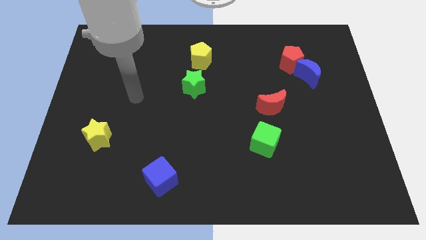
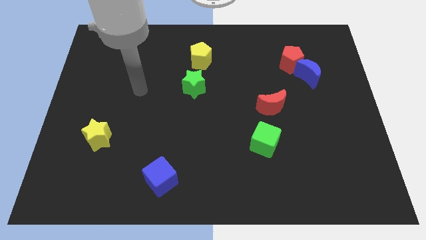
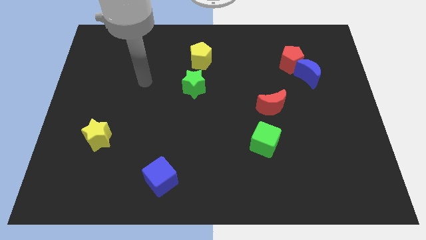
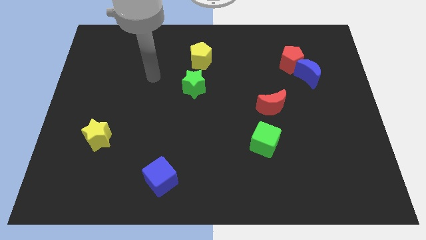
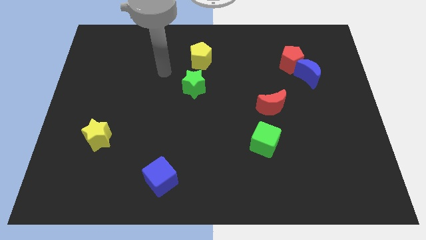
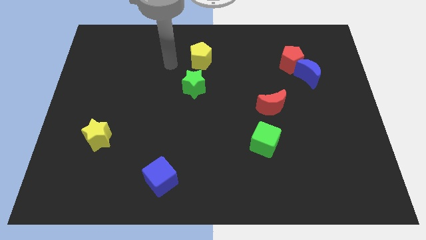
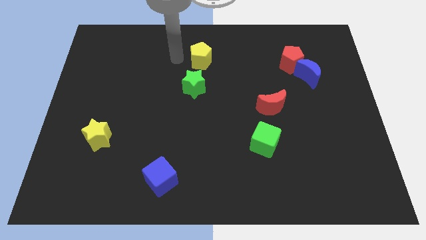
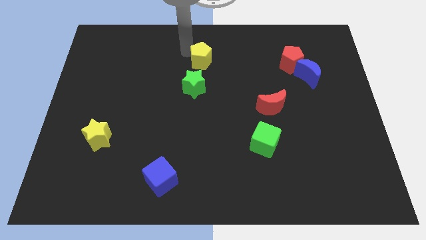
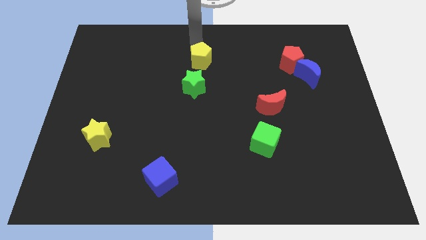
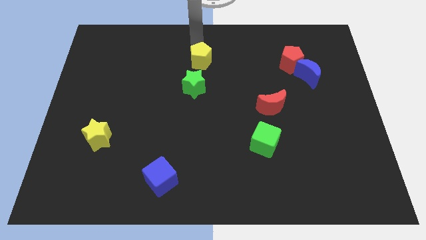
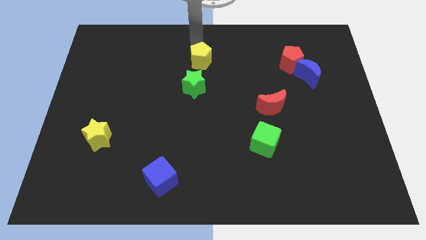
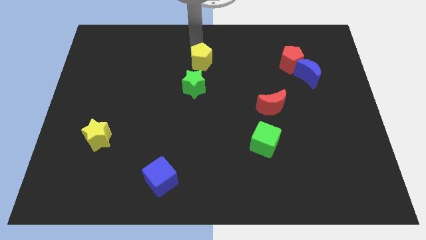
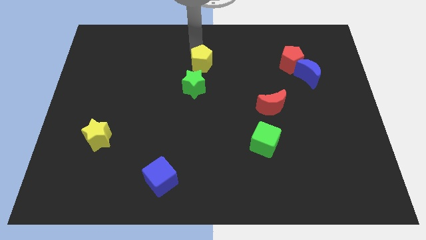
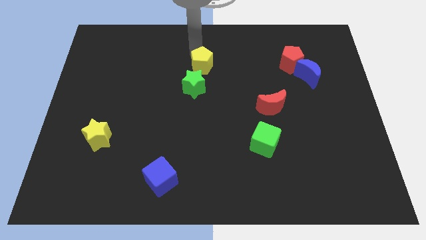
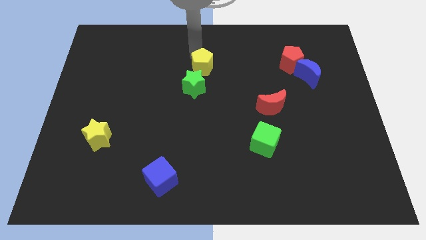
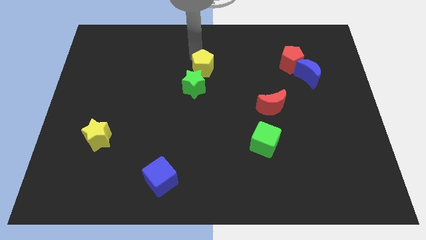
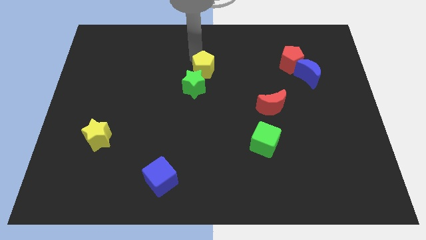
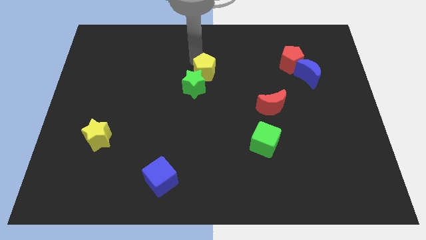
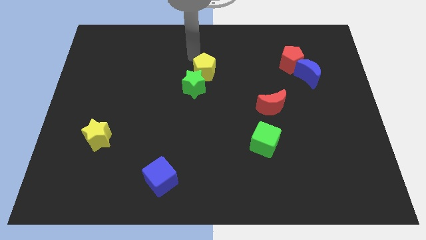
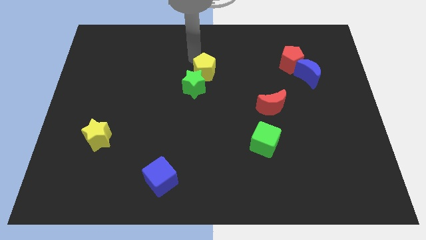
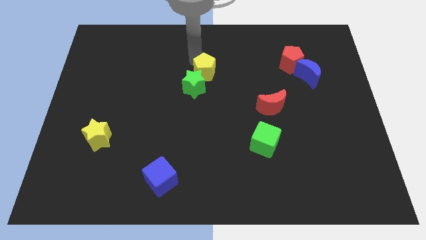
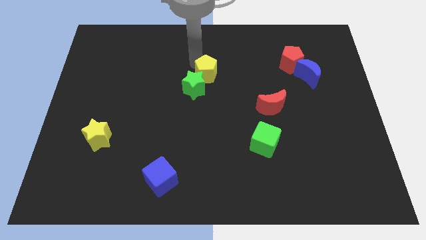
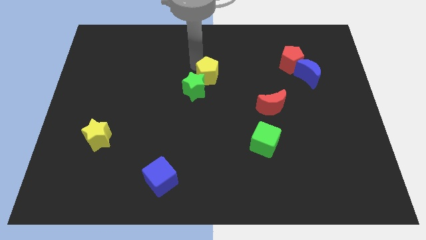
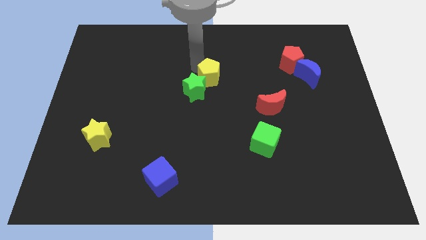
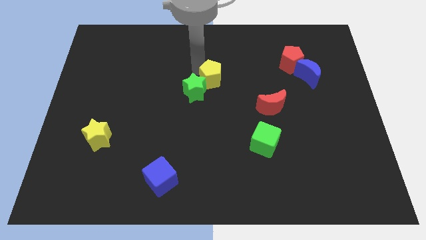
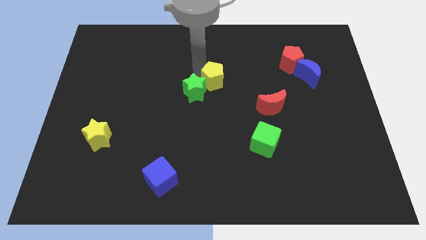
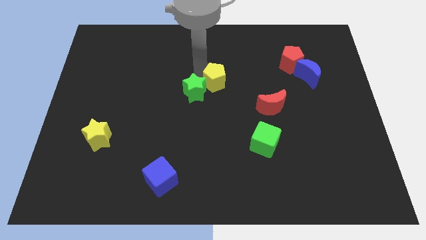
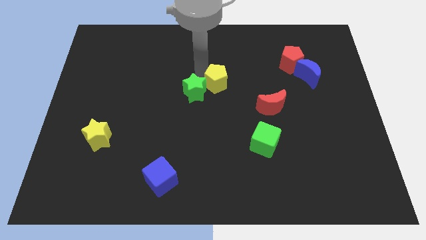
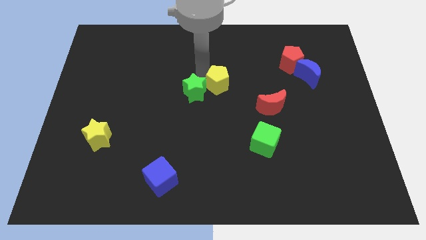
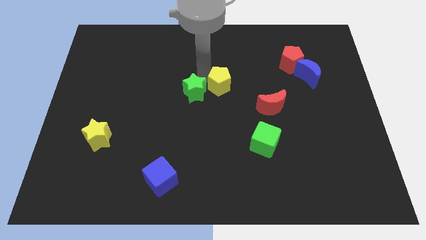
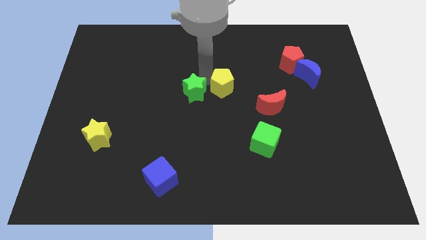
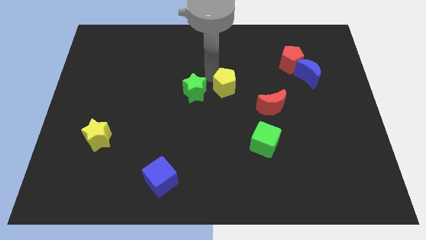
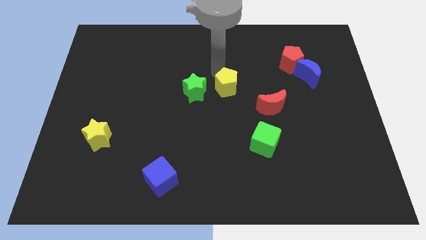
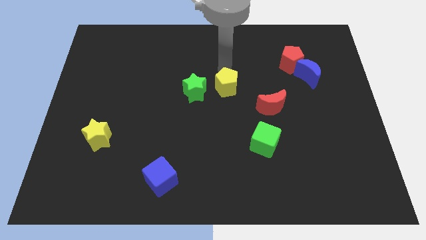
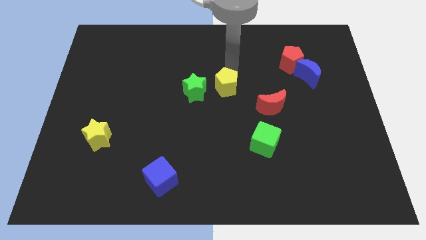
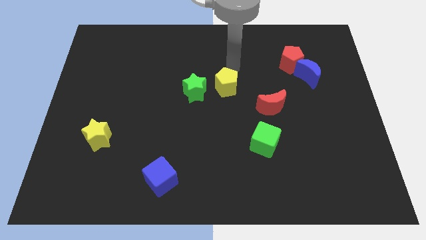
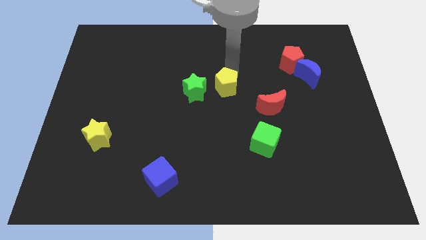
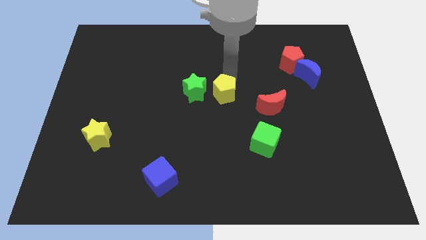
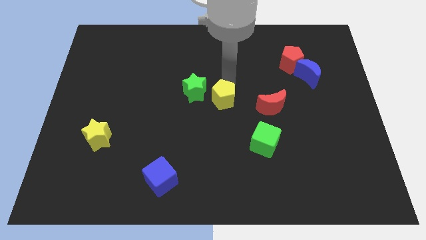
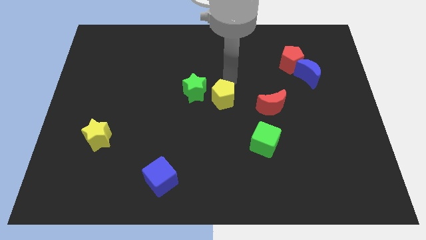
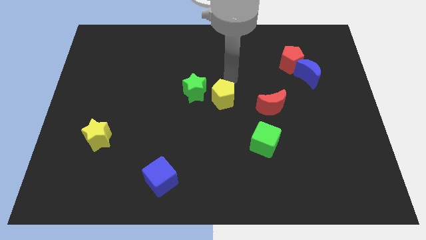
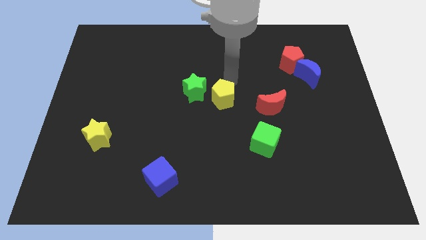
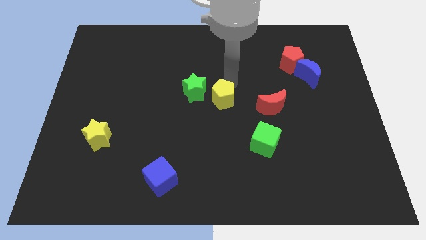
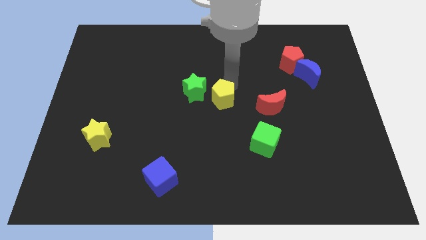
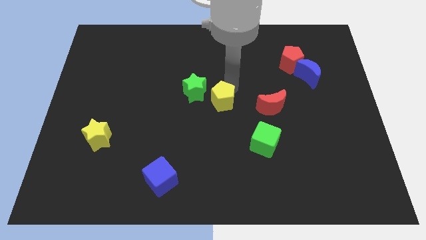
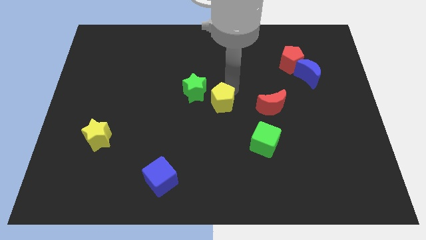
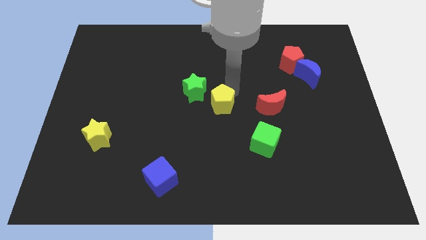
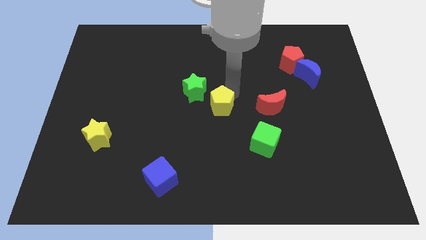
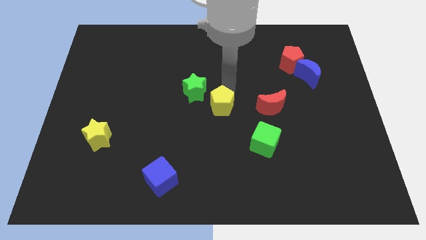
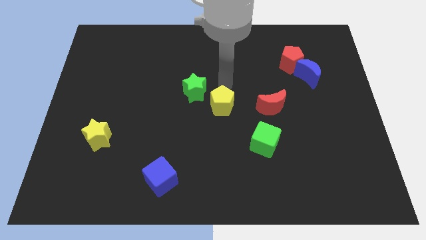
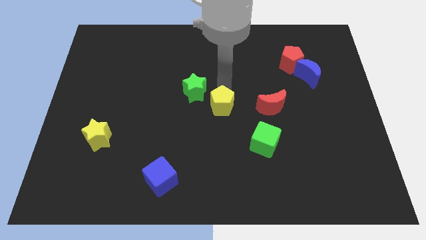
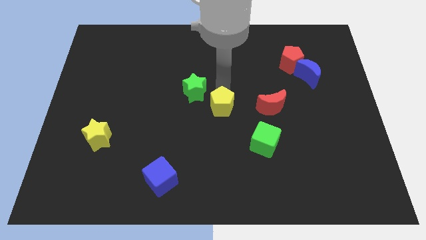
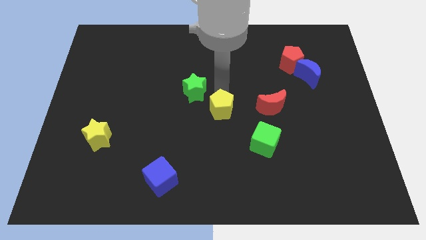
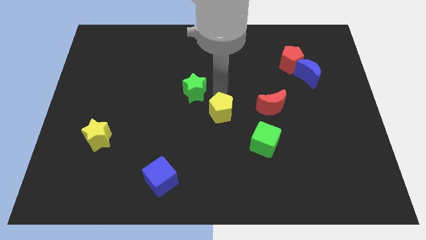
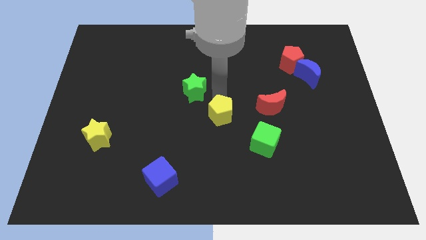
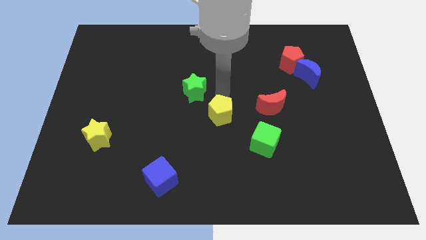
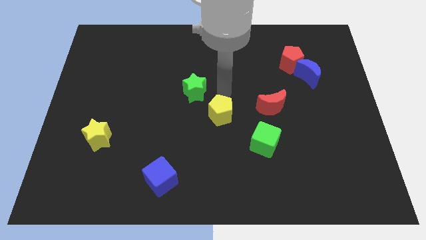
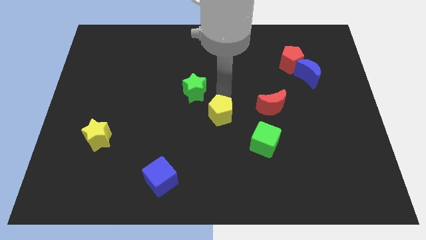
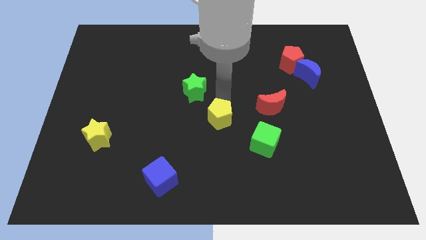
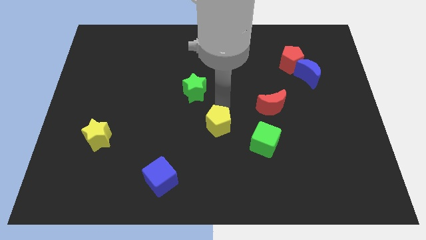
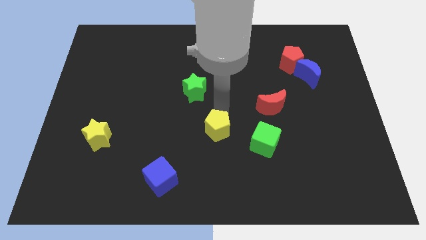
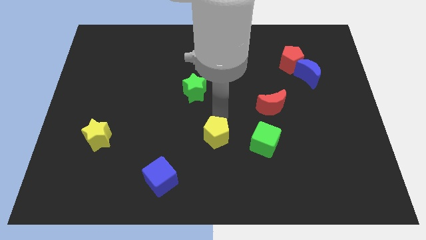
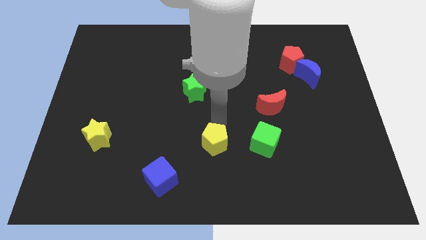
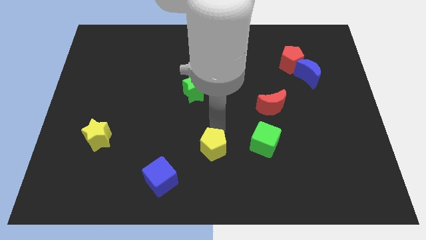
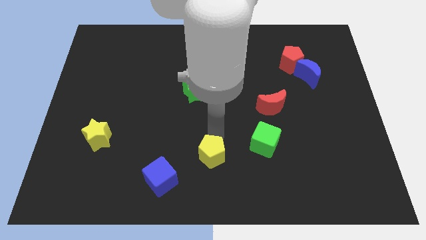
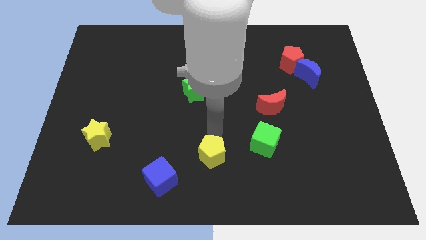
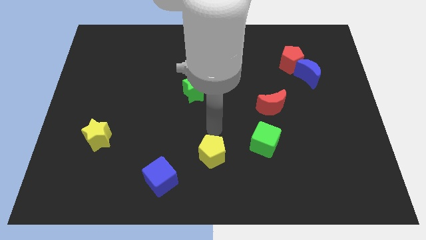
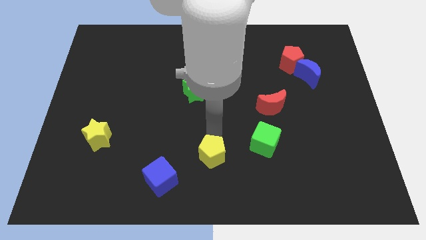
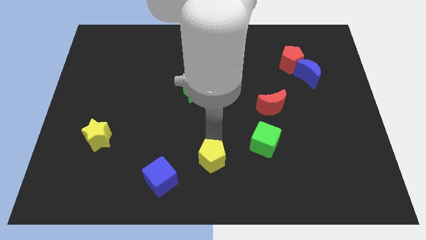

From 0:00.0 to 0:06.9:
slide the yellow pentagon to the right of the blue cube

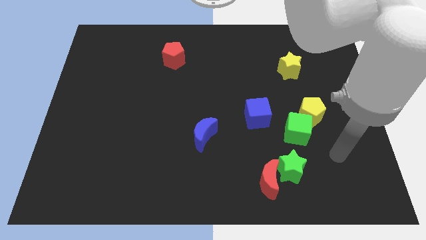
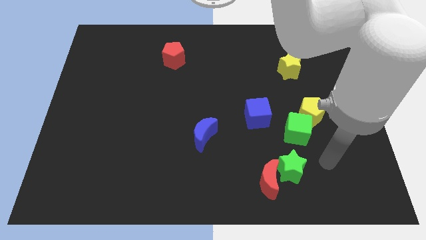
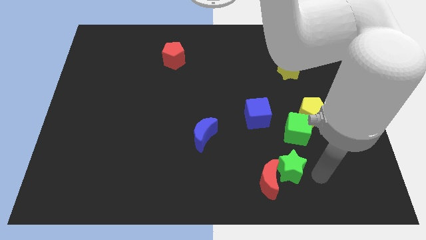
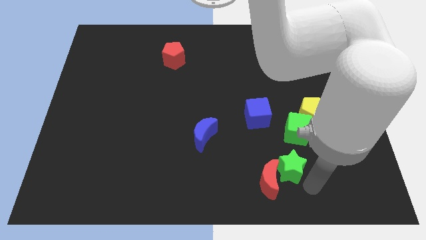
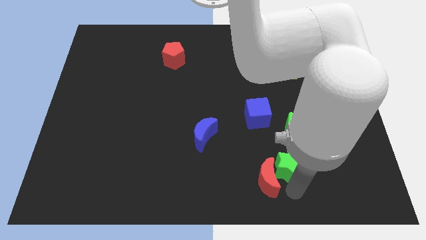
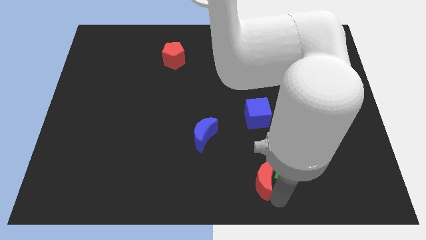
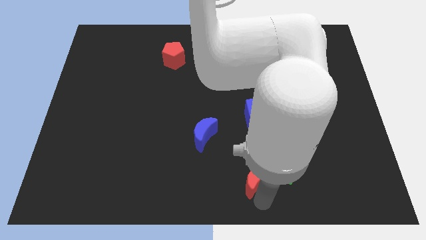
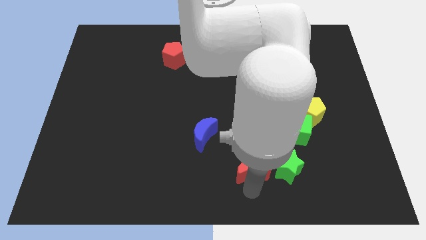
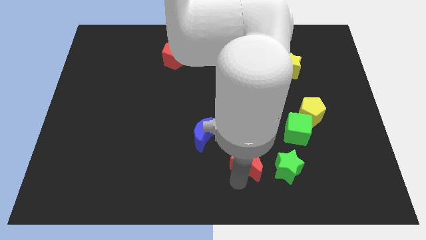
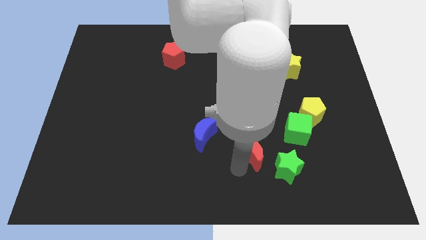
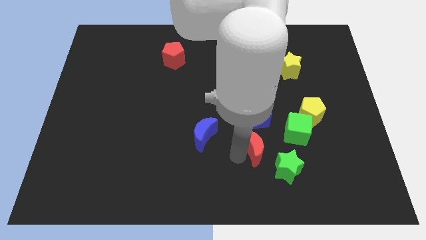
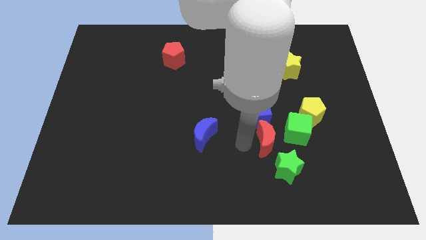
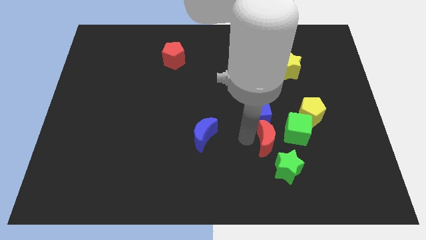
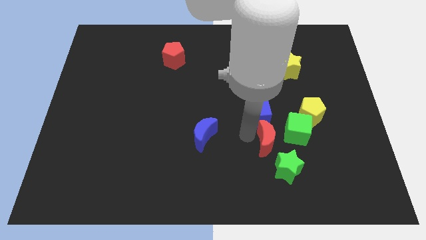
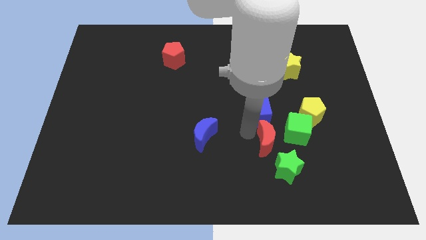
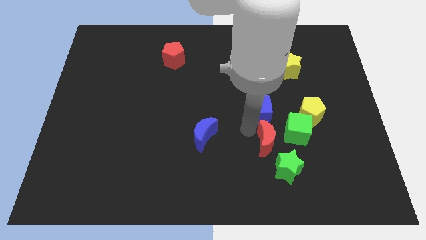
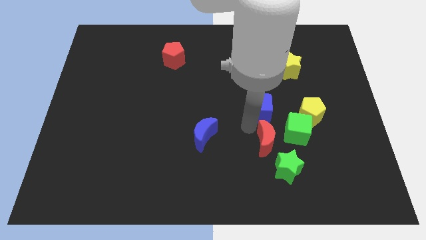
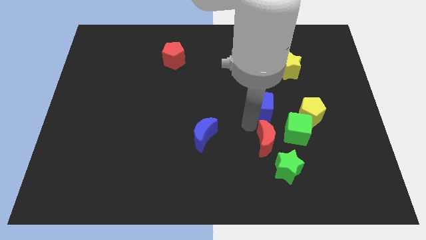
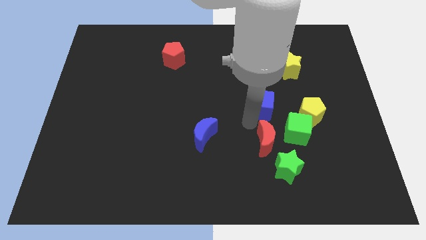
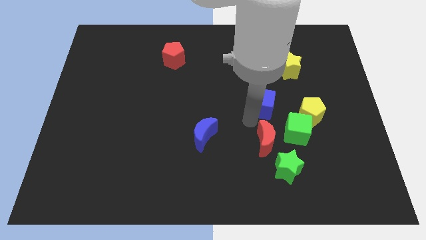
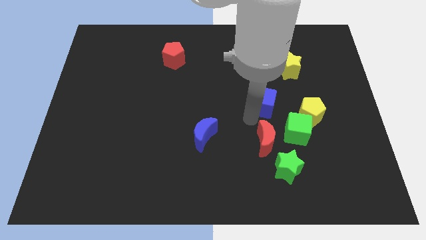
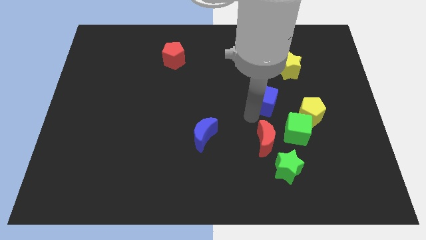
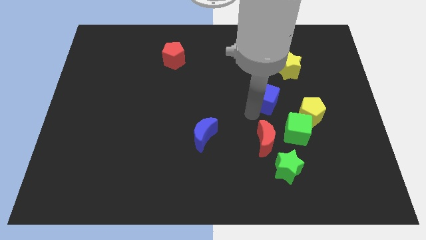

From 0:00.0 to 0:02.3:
put the blue cube diagonally down and to the left of the yellow star
